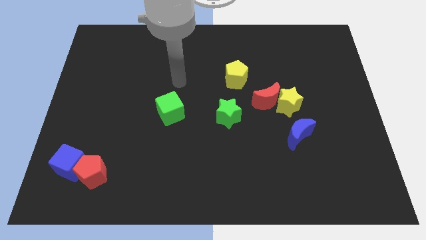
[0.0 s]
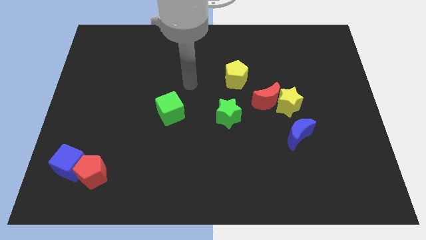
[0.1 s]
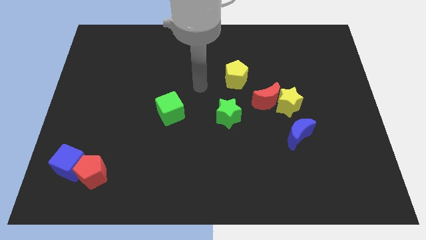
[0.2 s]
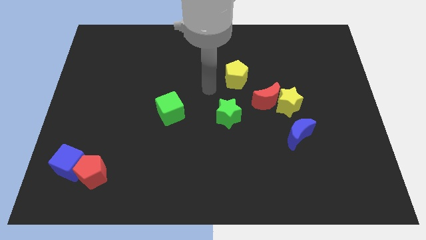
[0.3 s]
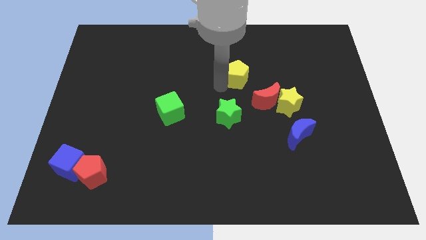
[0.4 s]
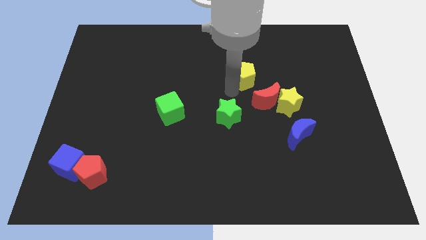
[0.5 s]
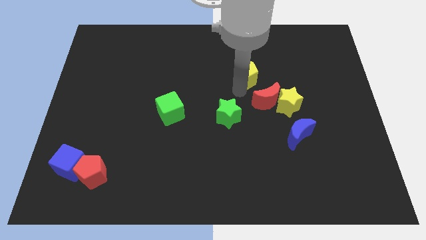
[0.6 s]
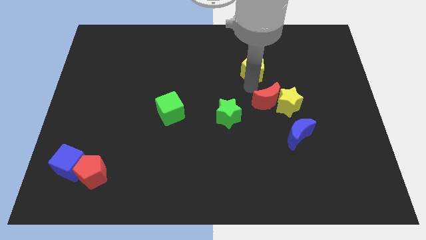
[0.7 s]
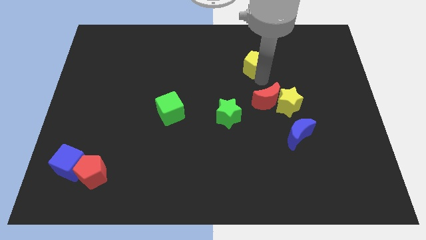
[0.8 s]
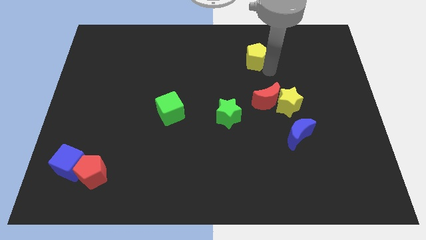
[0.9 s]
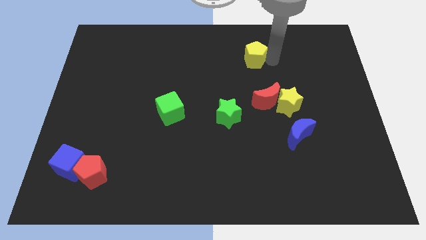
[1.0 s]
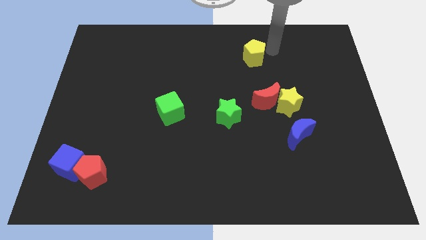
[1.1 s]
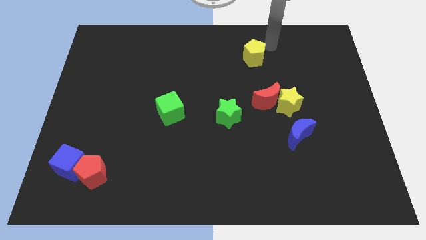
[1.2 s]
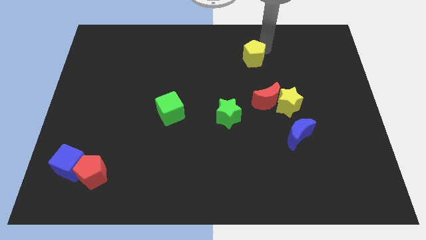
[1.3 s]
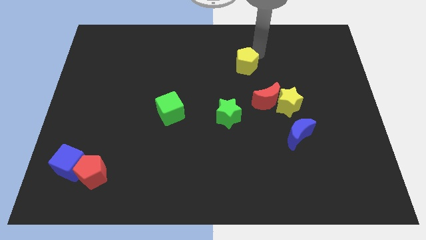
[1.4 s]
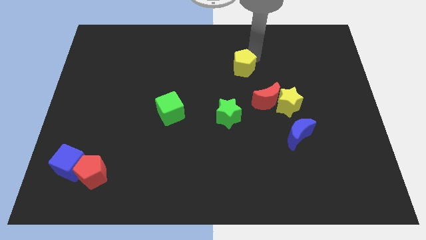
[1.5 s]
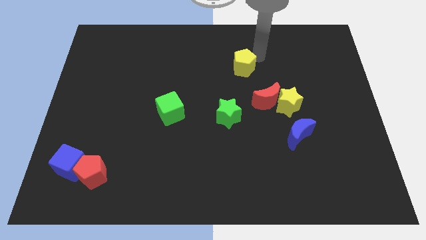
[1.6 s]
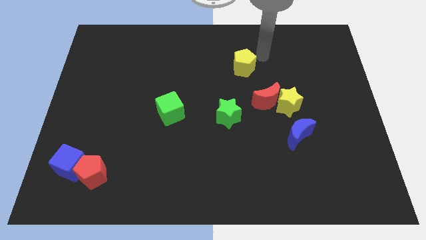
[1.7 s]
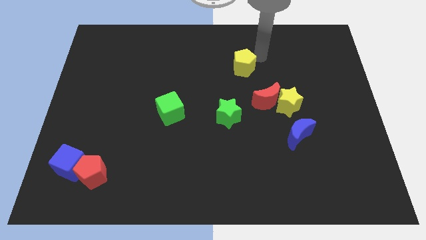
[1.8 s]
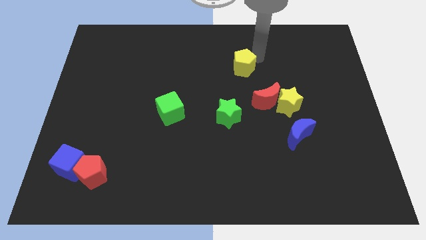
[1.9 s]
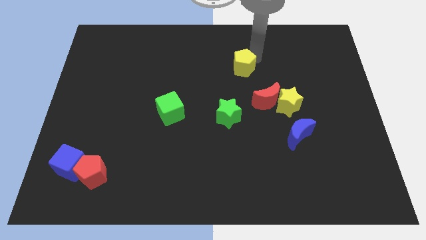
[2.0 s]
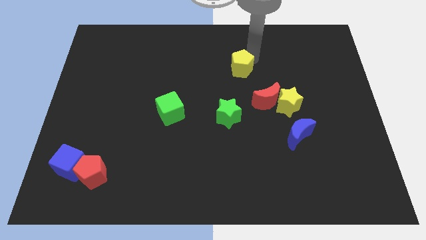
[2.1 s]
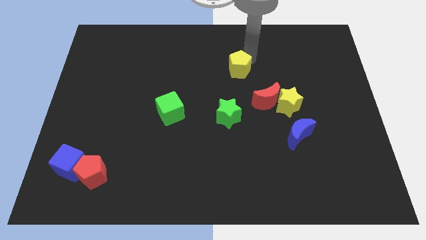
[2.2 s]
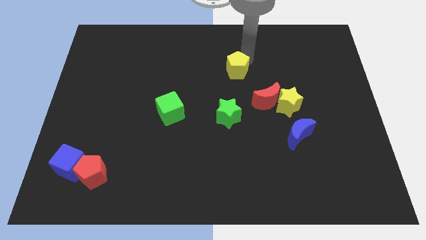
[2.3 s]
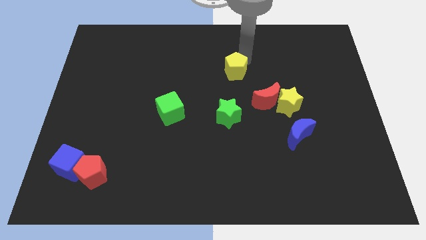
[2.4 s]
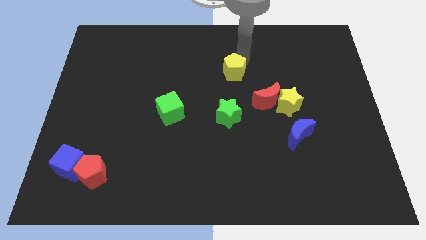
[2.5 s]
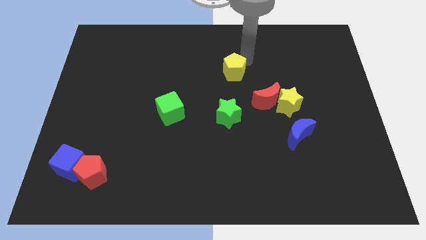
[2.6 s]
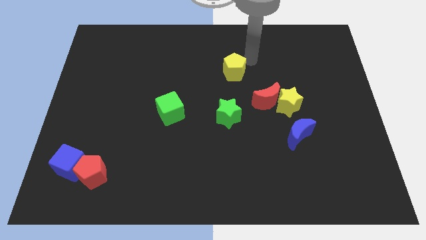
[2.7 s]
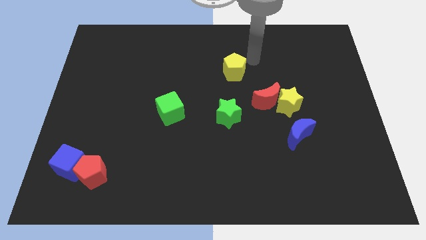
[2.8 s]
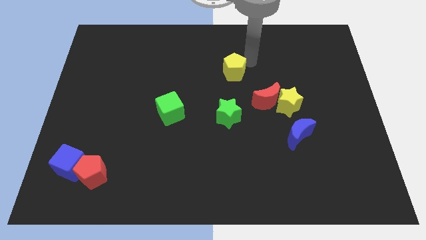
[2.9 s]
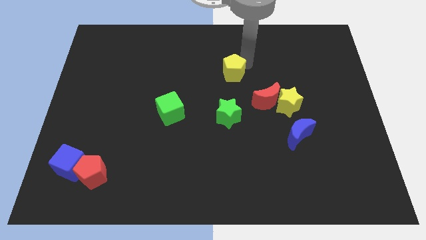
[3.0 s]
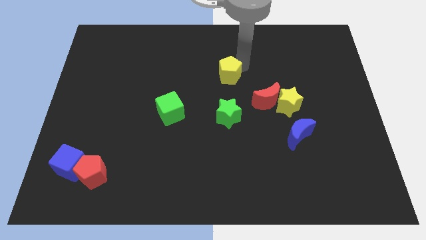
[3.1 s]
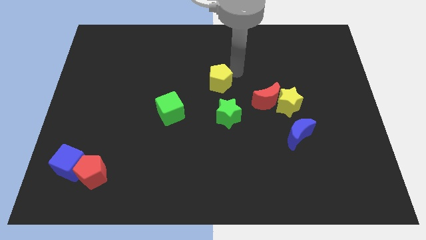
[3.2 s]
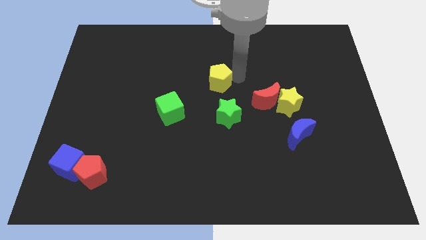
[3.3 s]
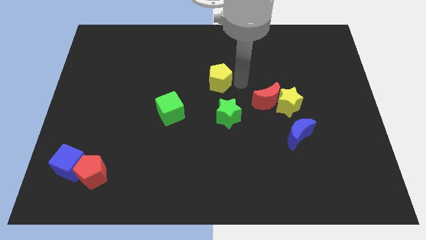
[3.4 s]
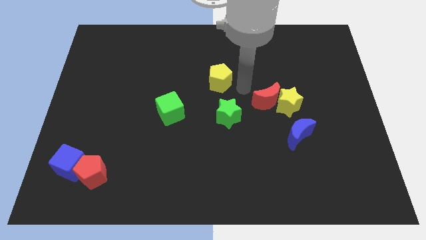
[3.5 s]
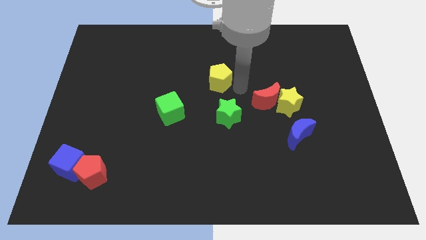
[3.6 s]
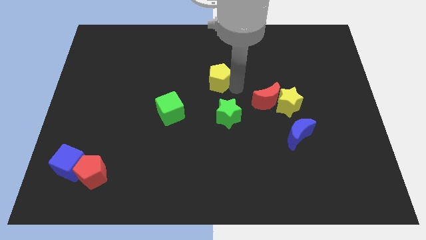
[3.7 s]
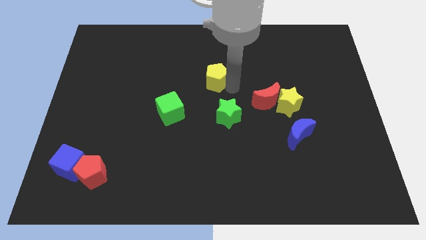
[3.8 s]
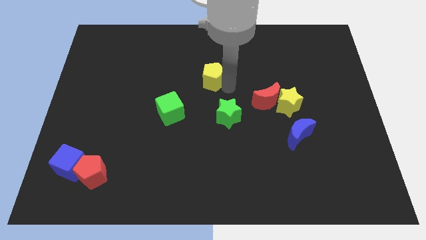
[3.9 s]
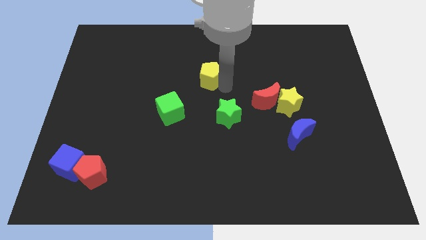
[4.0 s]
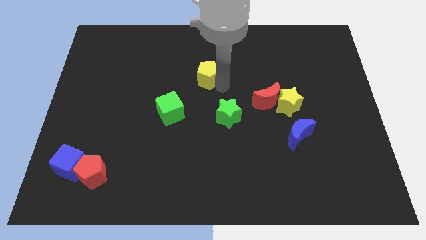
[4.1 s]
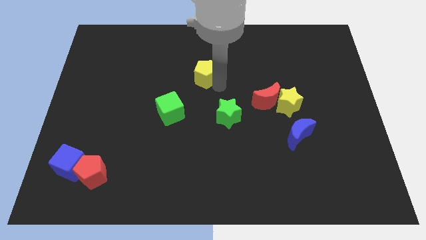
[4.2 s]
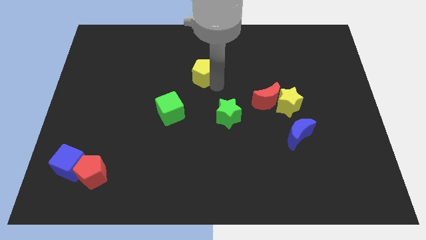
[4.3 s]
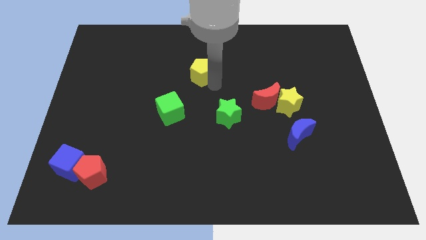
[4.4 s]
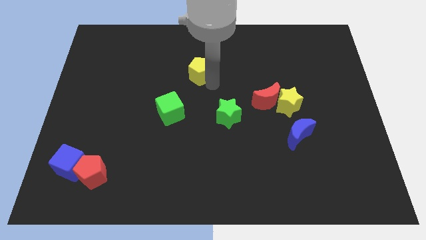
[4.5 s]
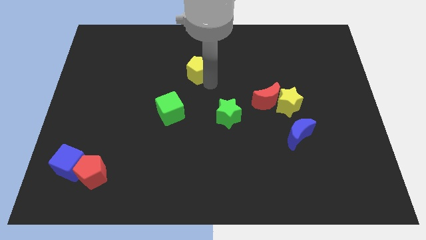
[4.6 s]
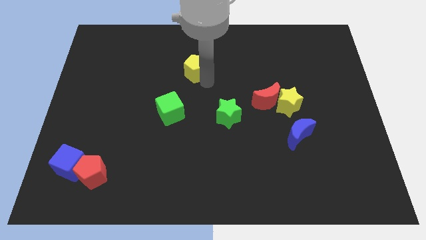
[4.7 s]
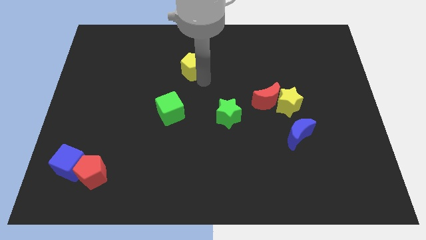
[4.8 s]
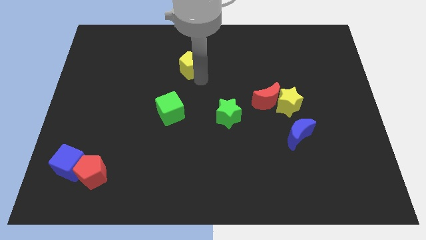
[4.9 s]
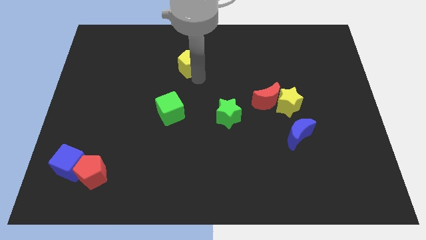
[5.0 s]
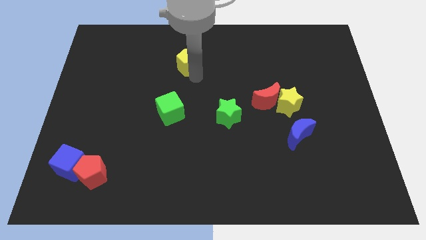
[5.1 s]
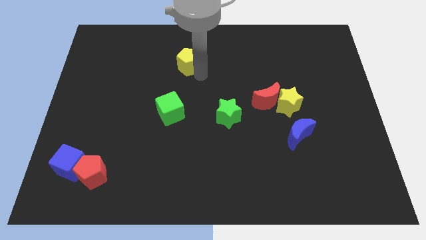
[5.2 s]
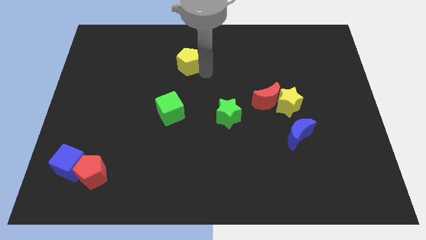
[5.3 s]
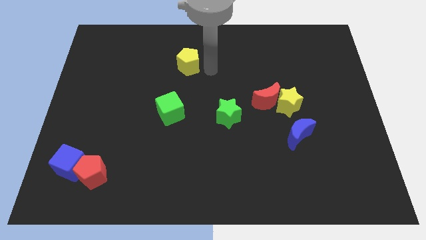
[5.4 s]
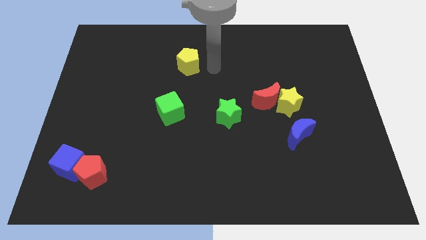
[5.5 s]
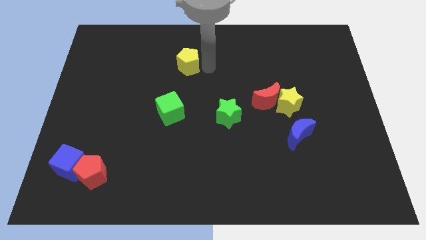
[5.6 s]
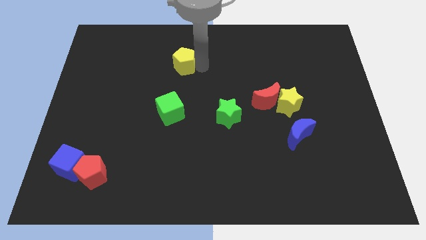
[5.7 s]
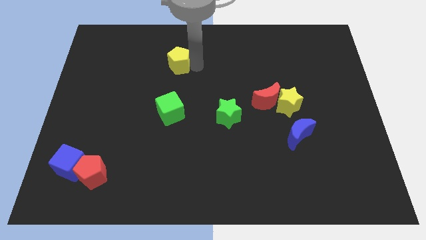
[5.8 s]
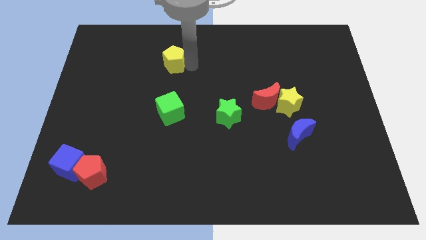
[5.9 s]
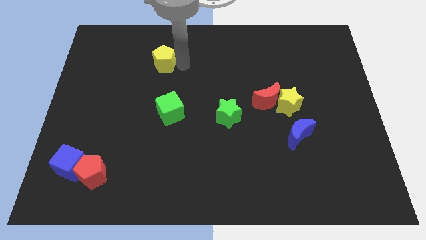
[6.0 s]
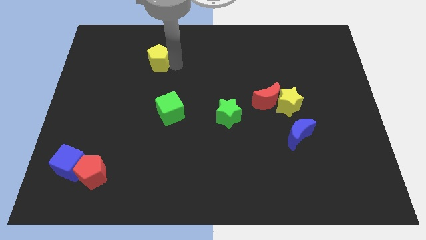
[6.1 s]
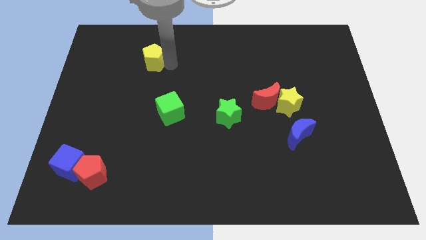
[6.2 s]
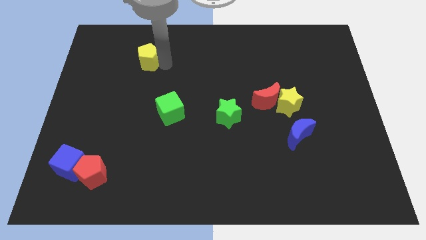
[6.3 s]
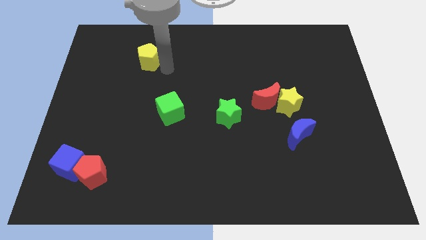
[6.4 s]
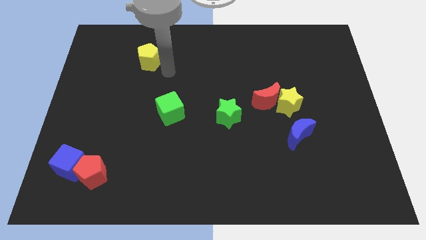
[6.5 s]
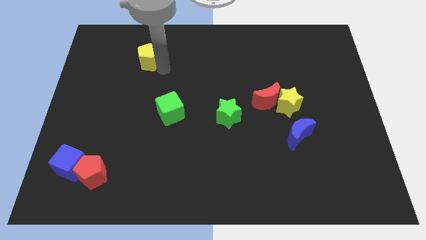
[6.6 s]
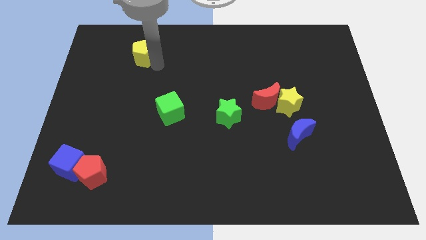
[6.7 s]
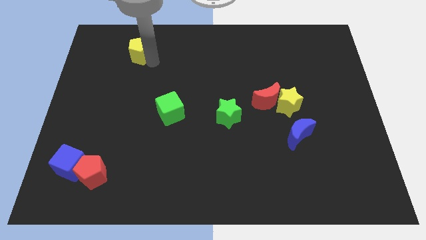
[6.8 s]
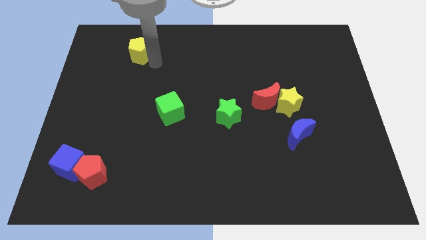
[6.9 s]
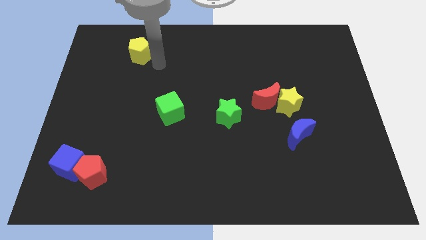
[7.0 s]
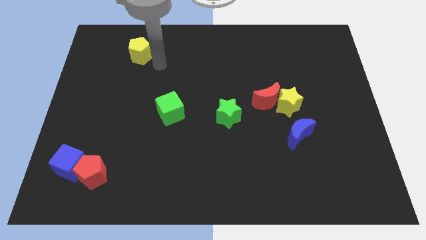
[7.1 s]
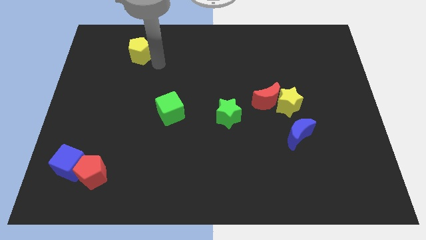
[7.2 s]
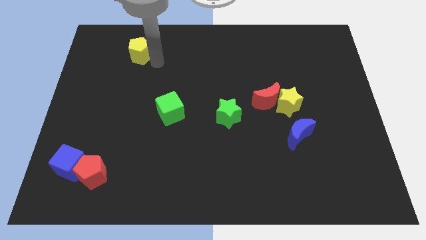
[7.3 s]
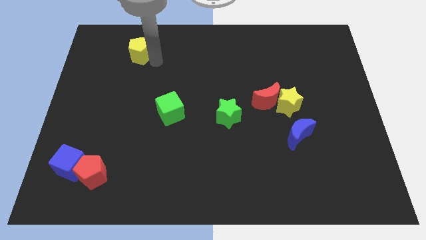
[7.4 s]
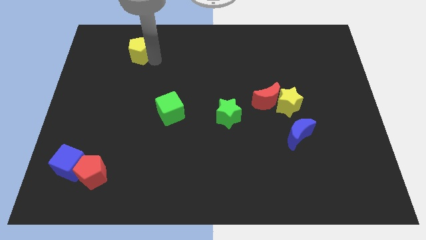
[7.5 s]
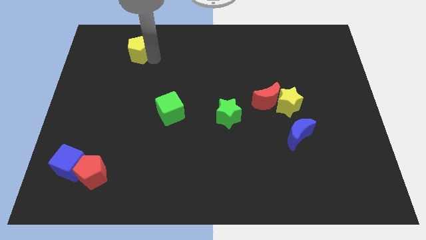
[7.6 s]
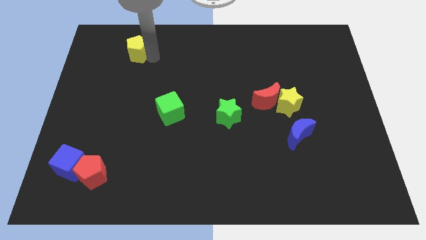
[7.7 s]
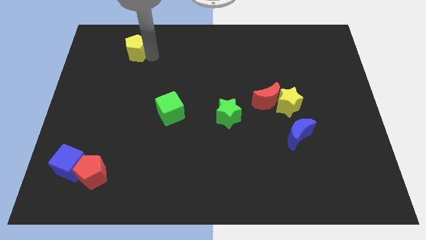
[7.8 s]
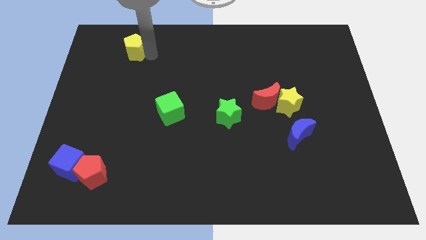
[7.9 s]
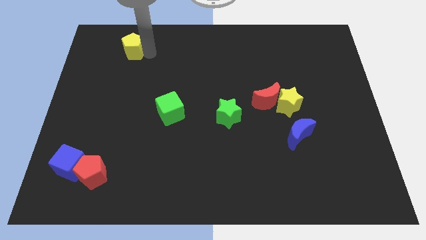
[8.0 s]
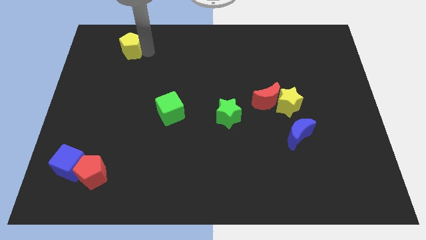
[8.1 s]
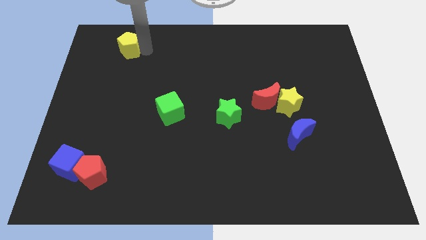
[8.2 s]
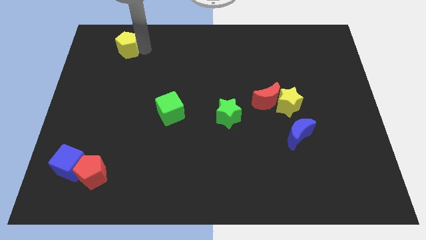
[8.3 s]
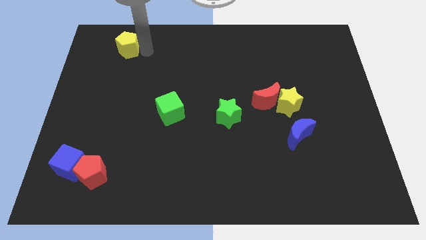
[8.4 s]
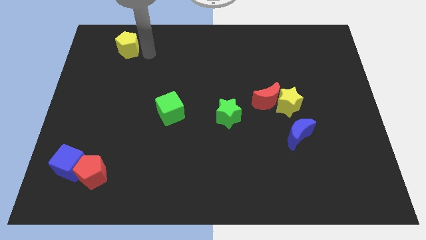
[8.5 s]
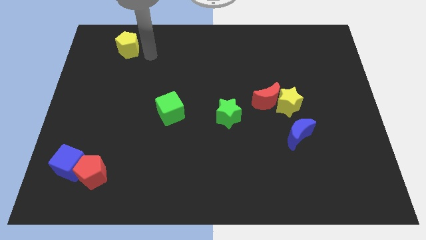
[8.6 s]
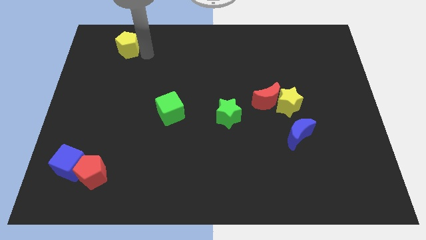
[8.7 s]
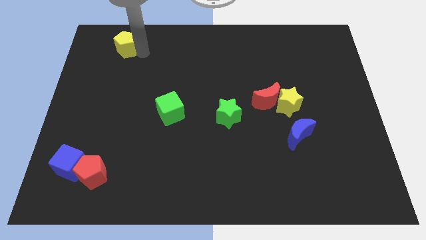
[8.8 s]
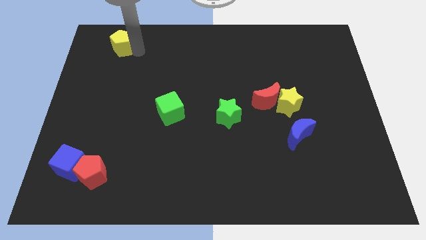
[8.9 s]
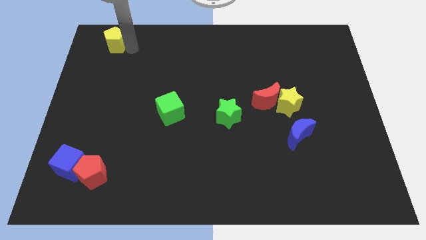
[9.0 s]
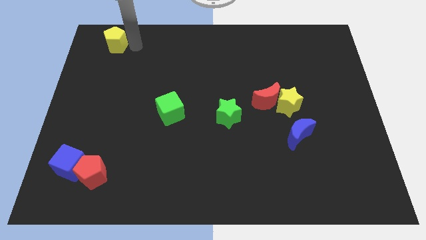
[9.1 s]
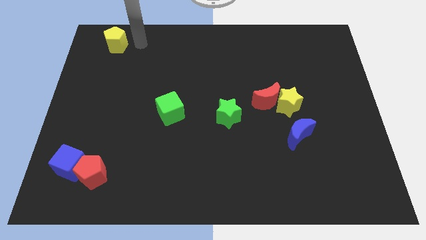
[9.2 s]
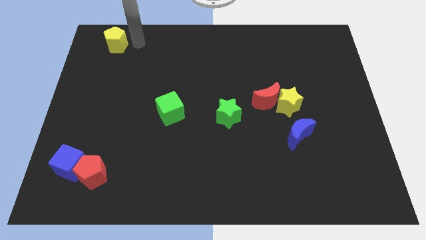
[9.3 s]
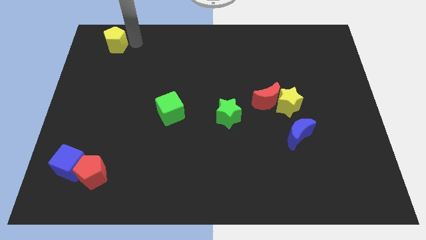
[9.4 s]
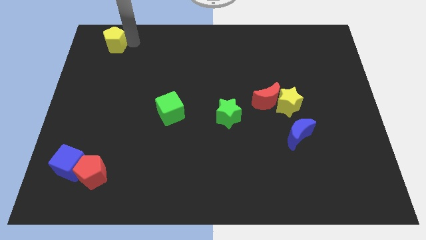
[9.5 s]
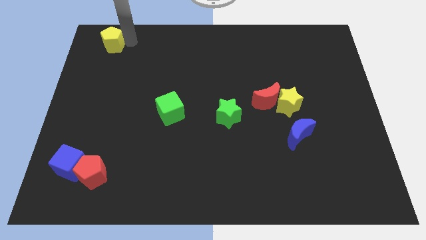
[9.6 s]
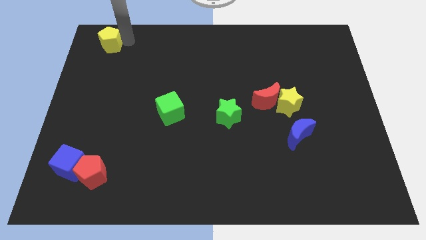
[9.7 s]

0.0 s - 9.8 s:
slide the yellow pentagon to the top left corner
